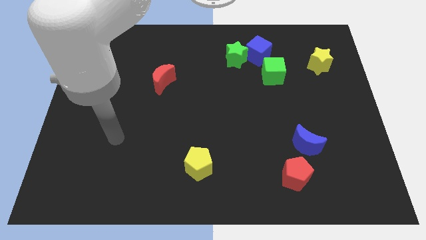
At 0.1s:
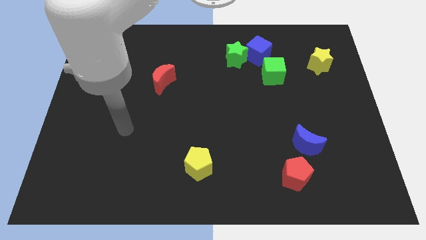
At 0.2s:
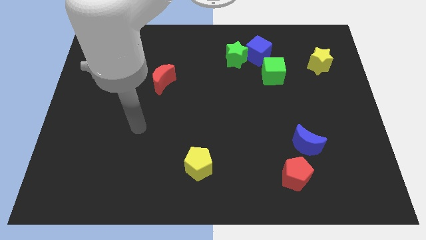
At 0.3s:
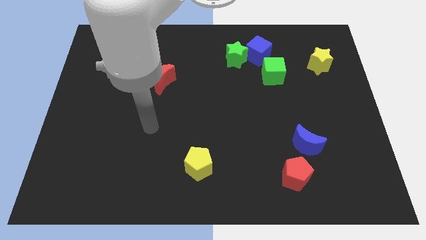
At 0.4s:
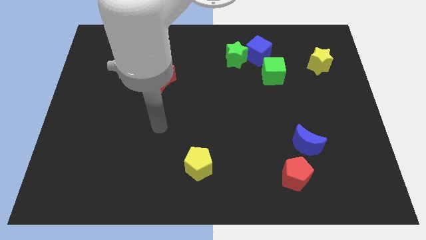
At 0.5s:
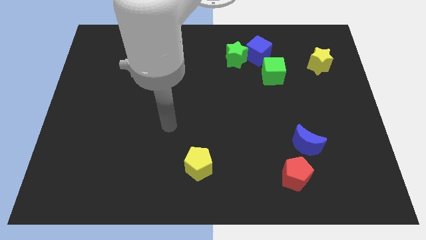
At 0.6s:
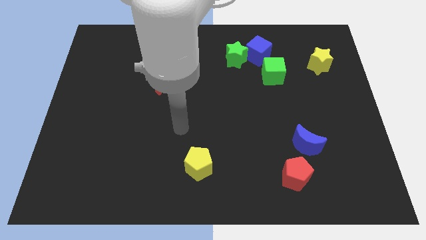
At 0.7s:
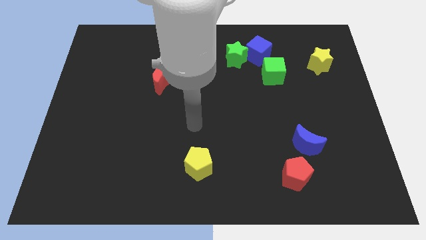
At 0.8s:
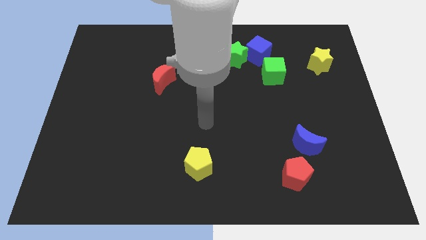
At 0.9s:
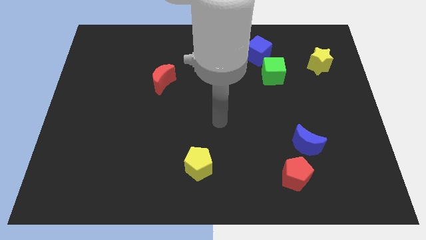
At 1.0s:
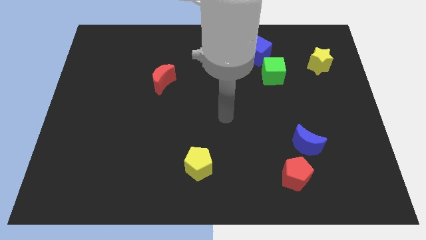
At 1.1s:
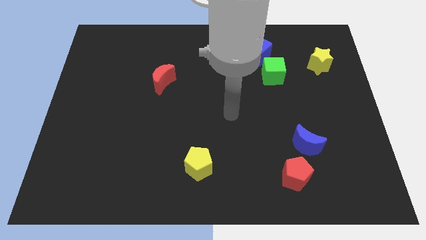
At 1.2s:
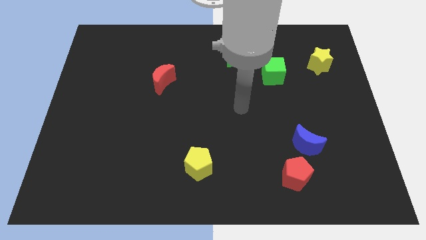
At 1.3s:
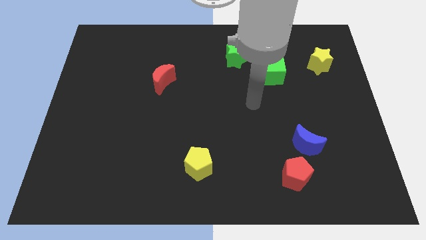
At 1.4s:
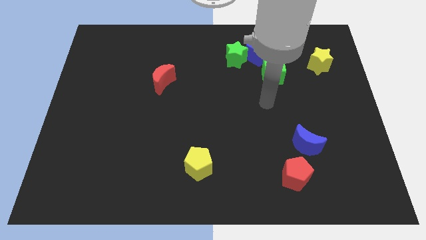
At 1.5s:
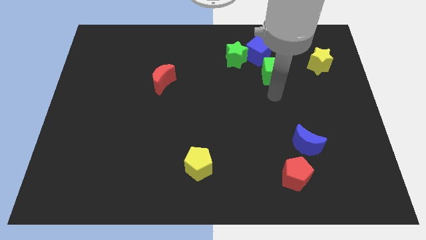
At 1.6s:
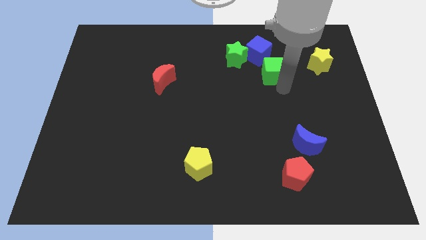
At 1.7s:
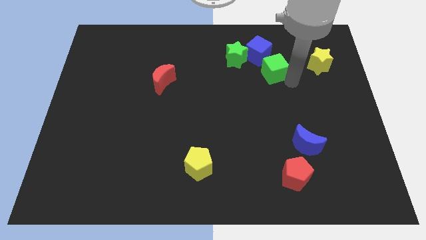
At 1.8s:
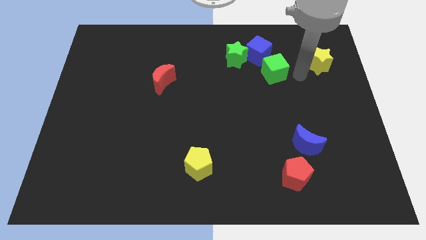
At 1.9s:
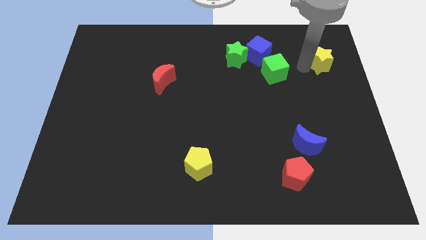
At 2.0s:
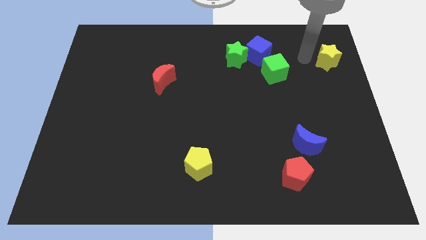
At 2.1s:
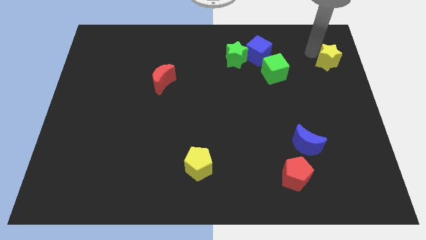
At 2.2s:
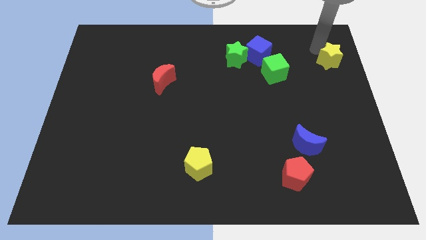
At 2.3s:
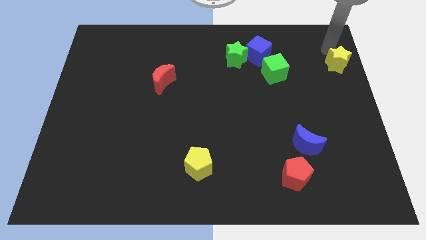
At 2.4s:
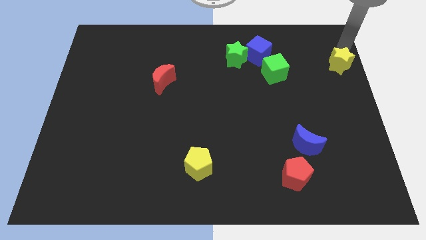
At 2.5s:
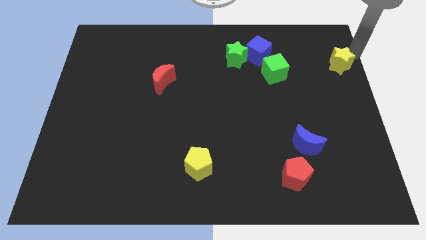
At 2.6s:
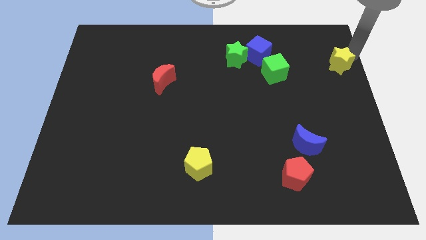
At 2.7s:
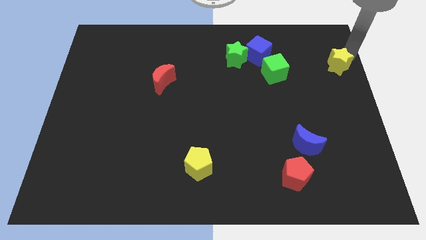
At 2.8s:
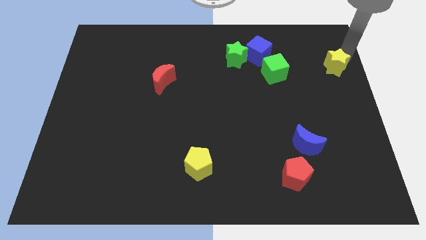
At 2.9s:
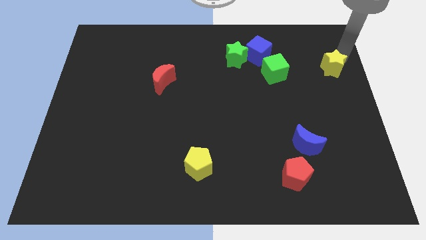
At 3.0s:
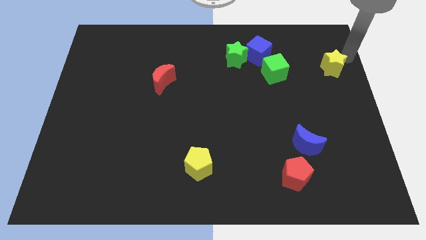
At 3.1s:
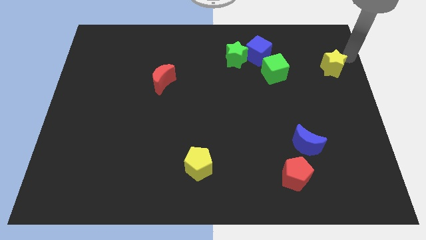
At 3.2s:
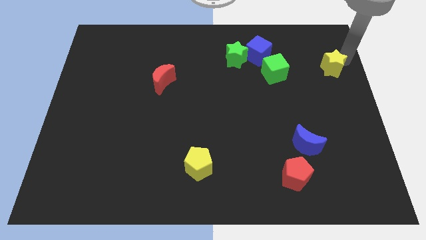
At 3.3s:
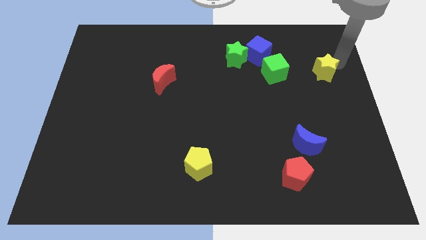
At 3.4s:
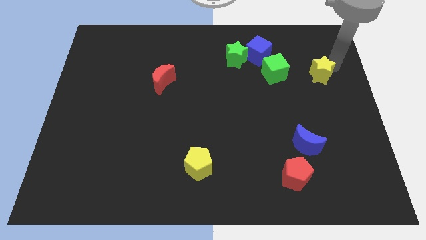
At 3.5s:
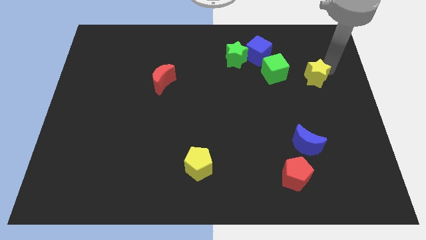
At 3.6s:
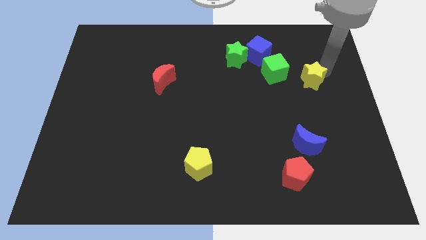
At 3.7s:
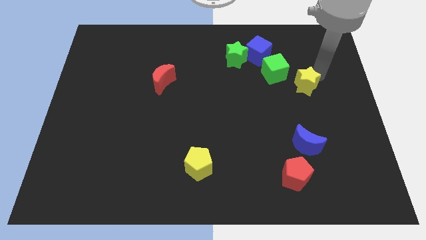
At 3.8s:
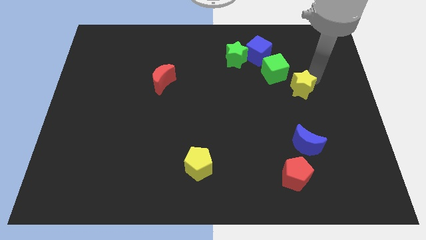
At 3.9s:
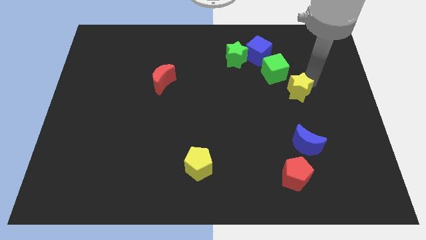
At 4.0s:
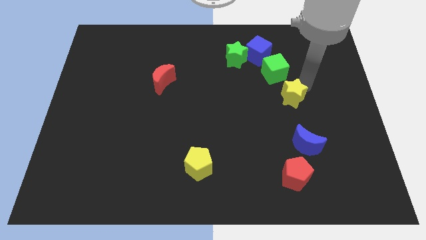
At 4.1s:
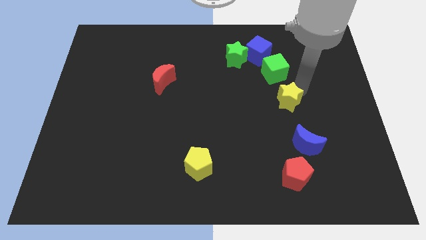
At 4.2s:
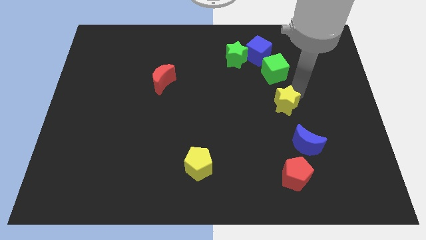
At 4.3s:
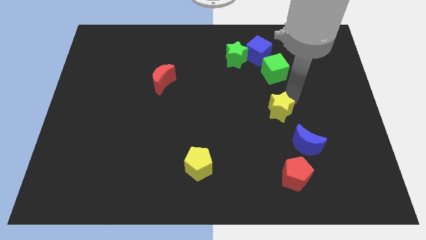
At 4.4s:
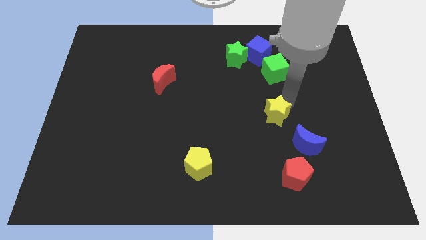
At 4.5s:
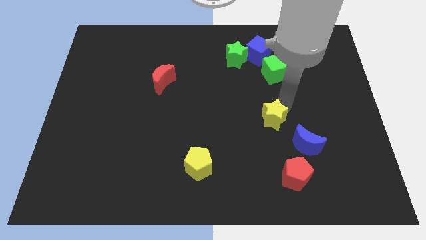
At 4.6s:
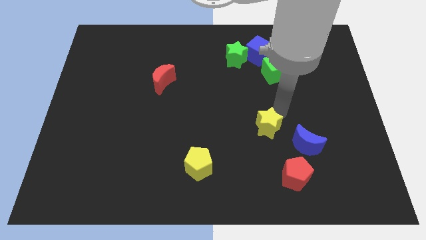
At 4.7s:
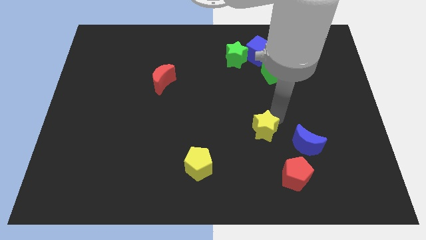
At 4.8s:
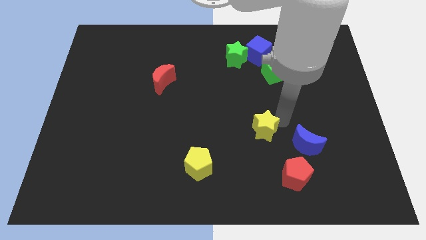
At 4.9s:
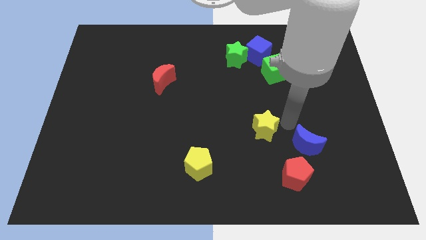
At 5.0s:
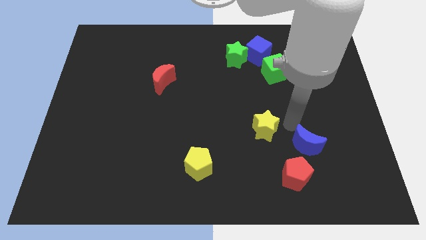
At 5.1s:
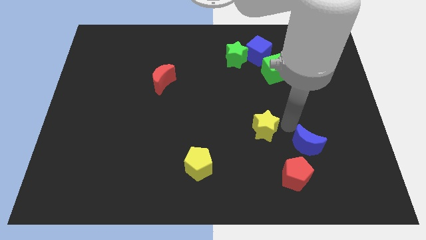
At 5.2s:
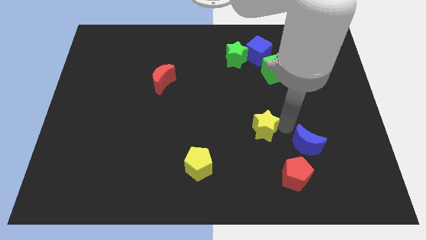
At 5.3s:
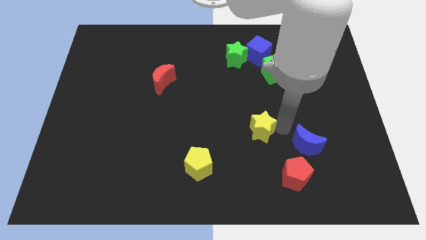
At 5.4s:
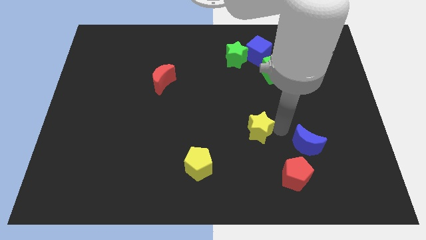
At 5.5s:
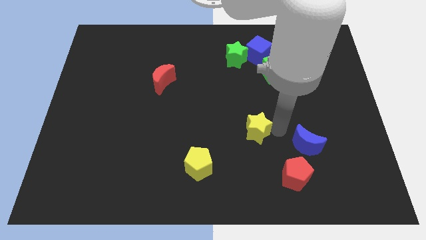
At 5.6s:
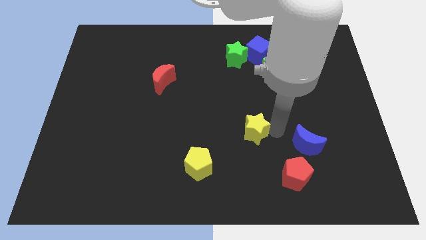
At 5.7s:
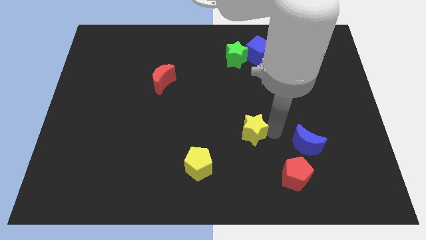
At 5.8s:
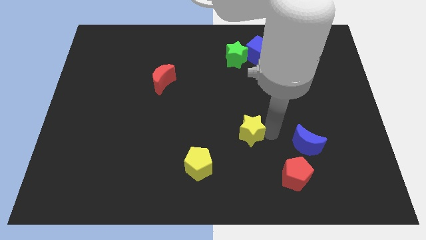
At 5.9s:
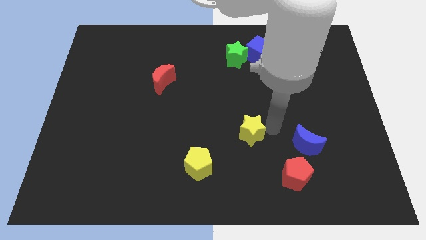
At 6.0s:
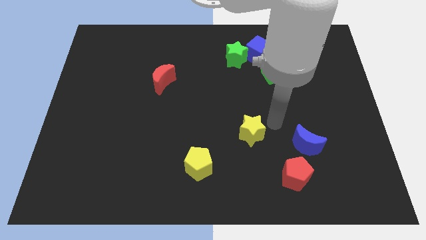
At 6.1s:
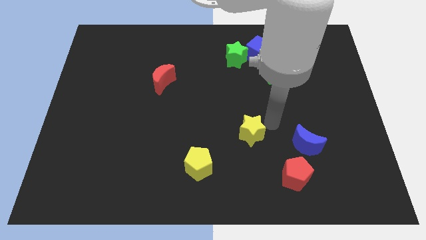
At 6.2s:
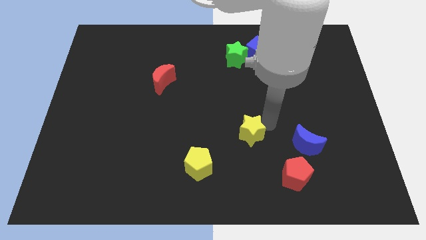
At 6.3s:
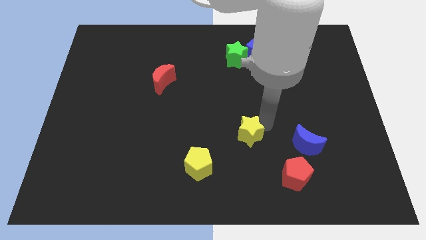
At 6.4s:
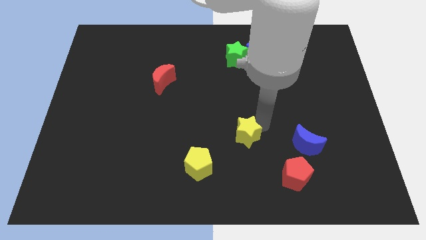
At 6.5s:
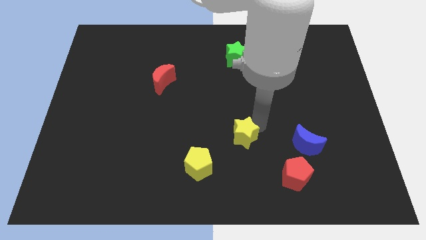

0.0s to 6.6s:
slide the yellow star to the top right of the yellow pentagon

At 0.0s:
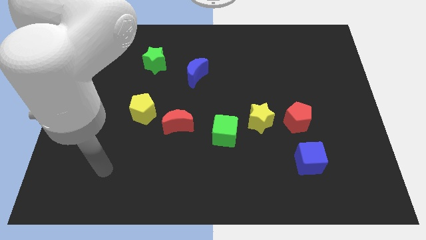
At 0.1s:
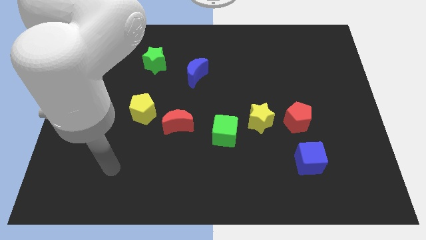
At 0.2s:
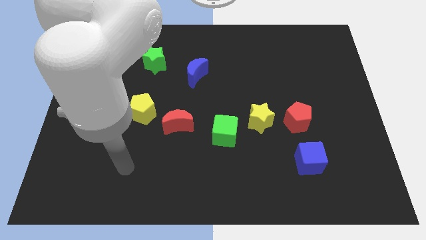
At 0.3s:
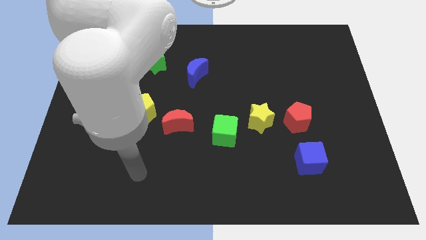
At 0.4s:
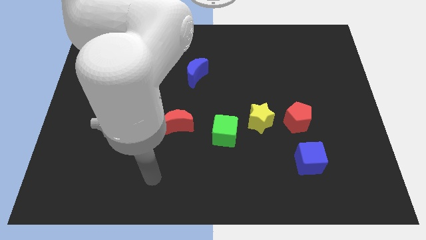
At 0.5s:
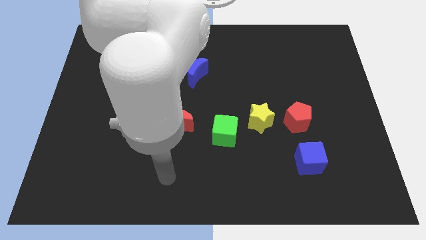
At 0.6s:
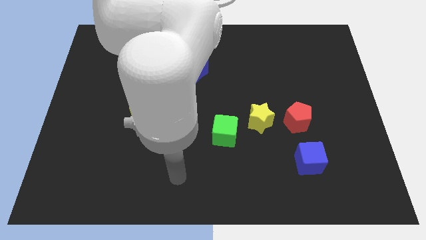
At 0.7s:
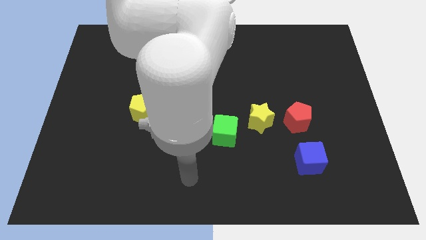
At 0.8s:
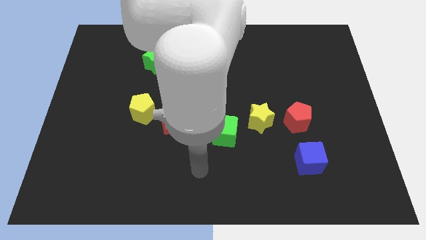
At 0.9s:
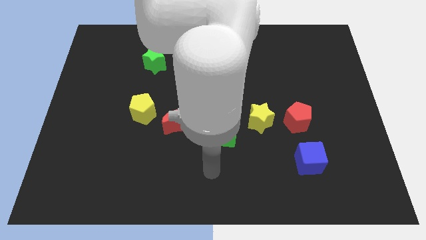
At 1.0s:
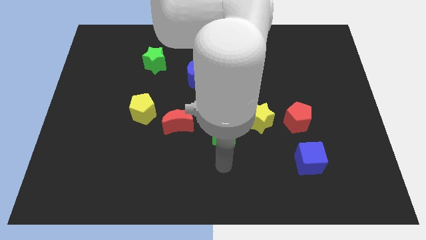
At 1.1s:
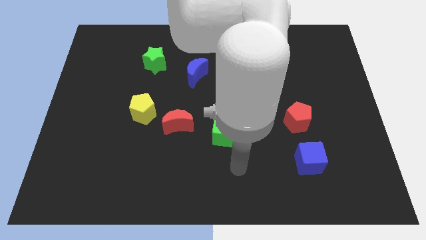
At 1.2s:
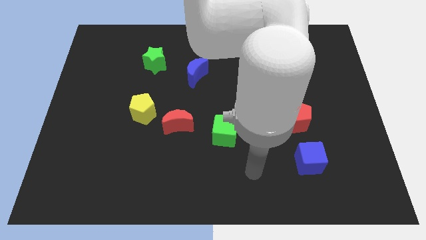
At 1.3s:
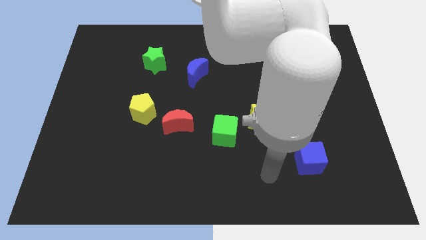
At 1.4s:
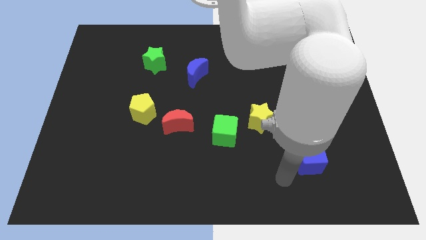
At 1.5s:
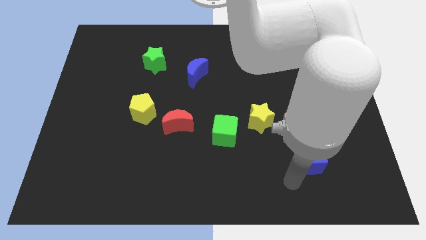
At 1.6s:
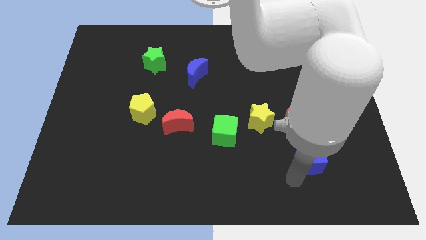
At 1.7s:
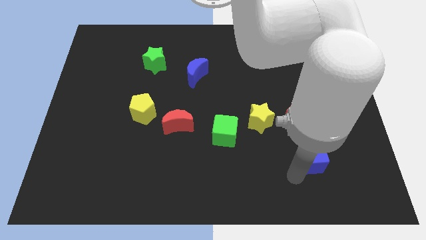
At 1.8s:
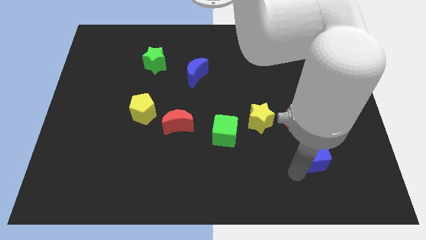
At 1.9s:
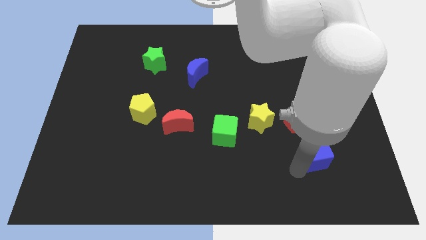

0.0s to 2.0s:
slide the blue cube to the bottom right side of the red pentagon
